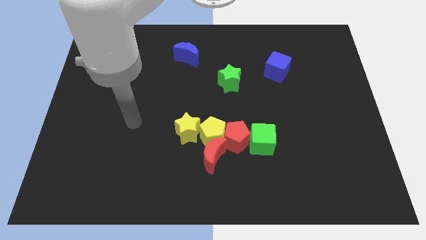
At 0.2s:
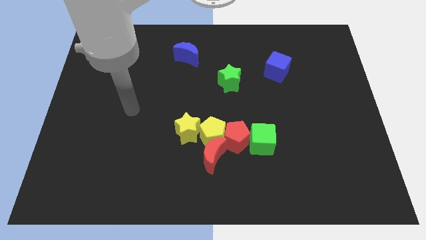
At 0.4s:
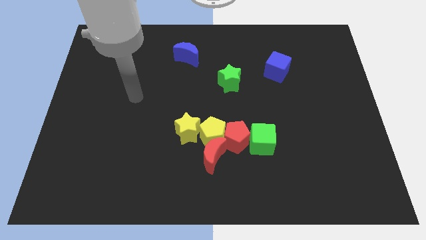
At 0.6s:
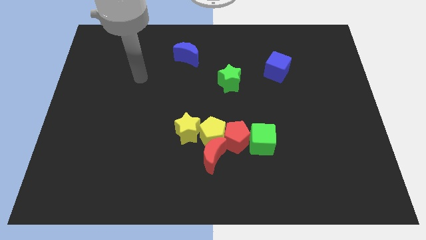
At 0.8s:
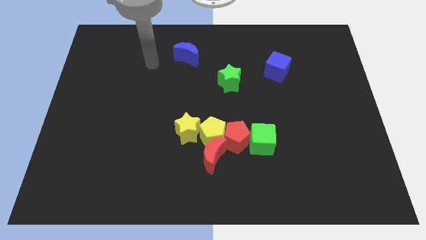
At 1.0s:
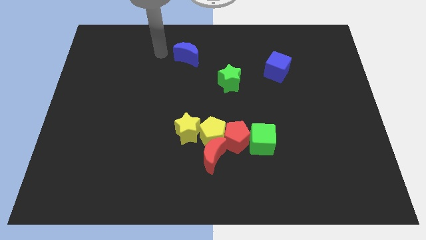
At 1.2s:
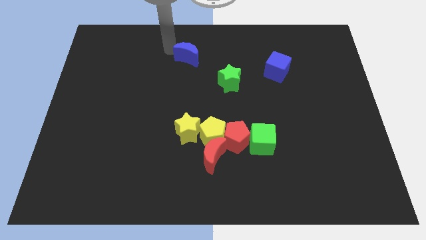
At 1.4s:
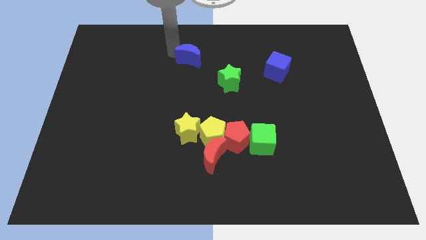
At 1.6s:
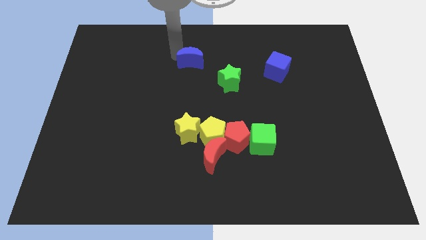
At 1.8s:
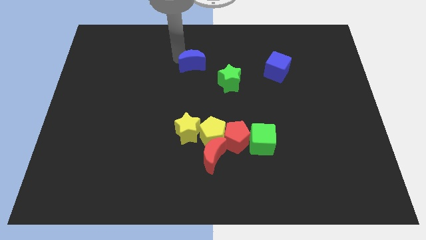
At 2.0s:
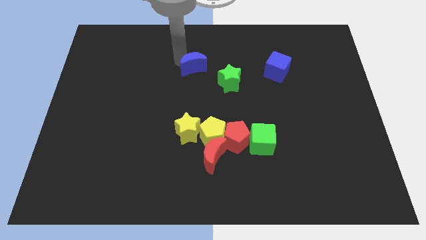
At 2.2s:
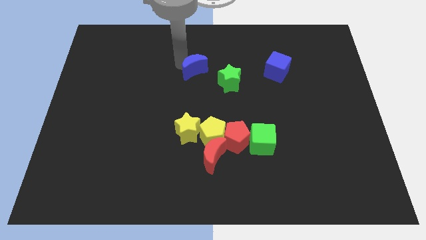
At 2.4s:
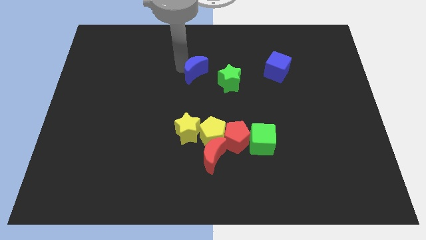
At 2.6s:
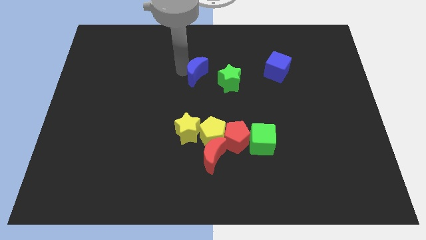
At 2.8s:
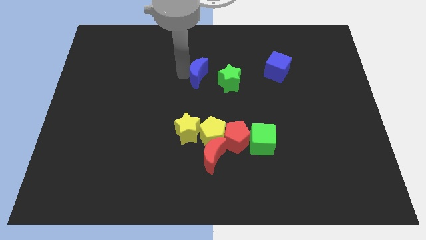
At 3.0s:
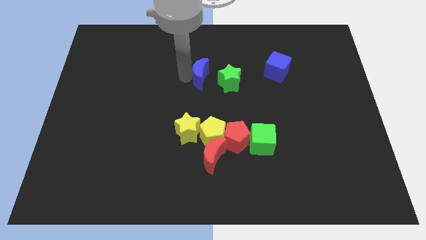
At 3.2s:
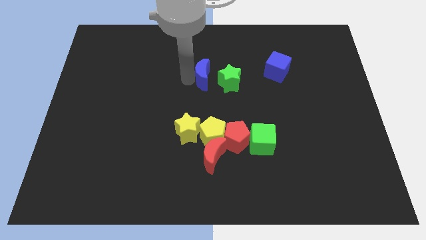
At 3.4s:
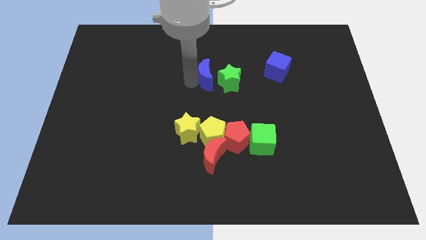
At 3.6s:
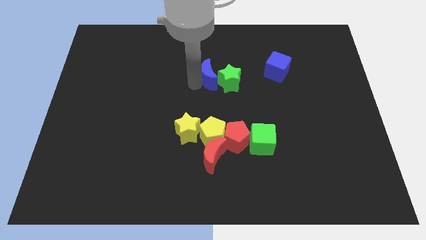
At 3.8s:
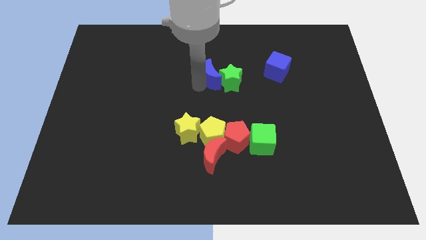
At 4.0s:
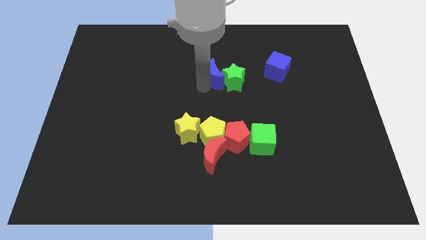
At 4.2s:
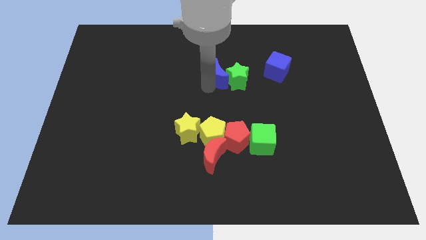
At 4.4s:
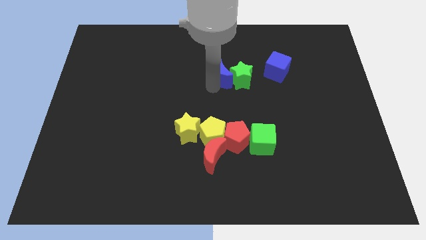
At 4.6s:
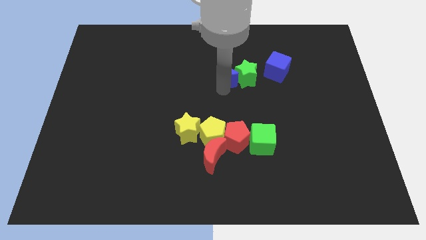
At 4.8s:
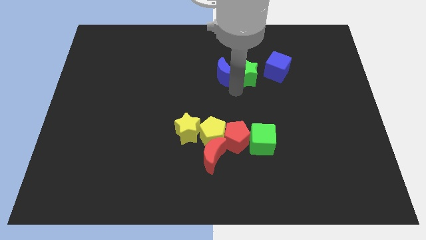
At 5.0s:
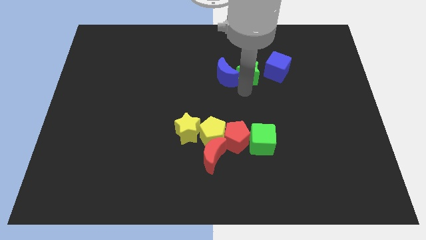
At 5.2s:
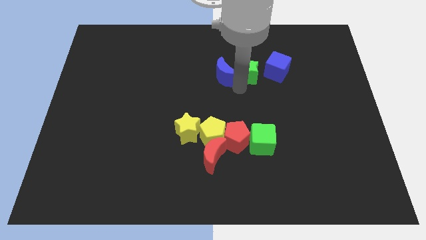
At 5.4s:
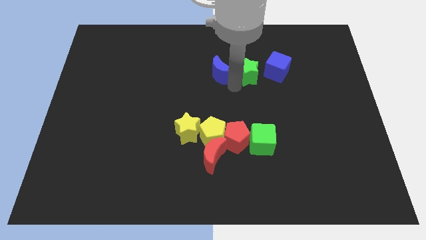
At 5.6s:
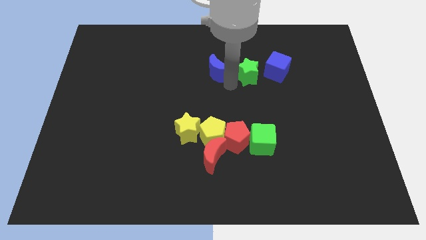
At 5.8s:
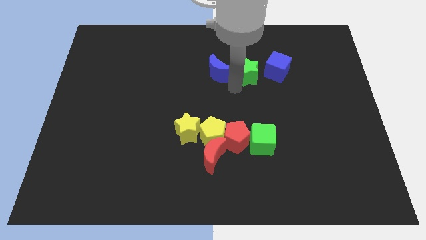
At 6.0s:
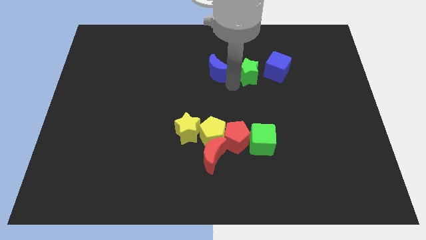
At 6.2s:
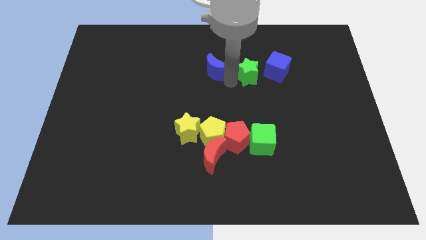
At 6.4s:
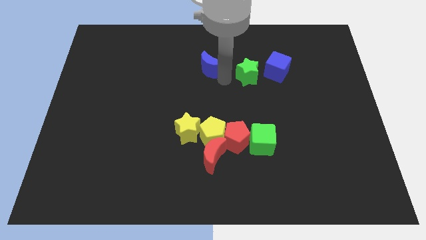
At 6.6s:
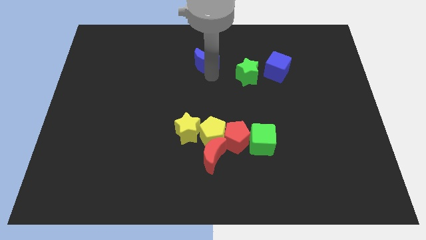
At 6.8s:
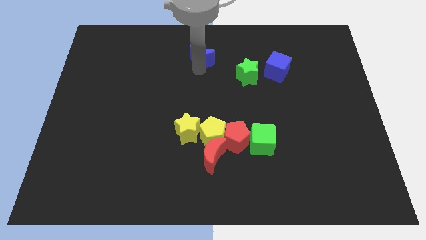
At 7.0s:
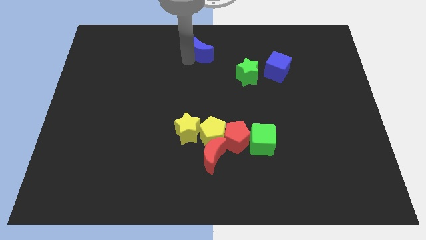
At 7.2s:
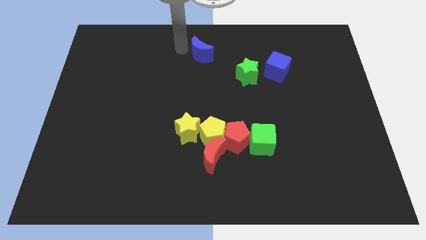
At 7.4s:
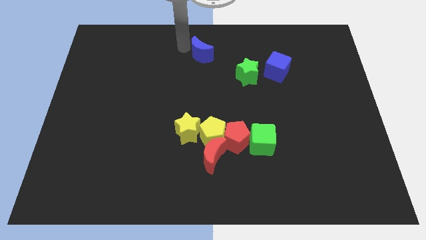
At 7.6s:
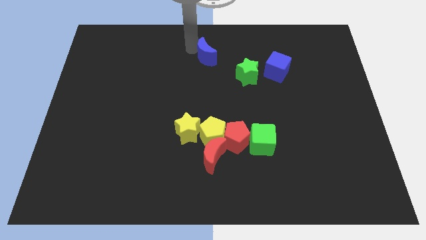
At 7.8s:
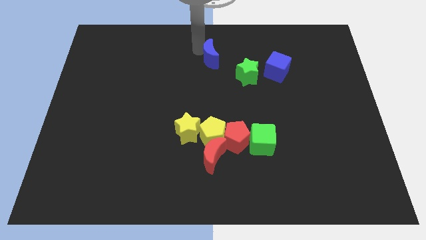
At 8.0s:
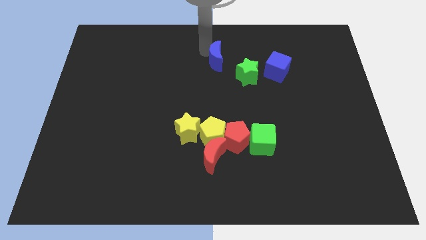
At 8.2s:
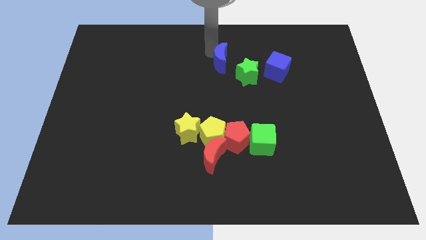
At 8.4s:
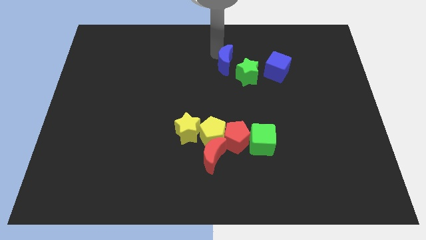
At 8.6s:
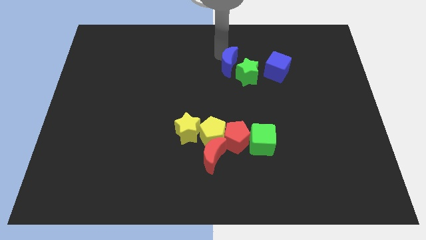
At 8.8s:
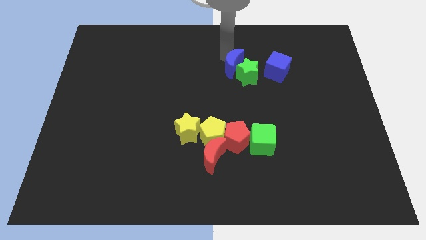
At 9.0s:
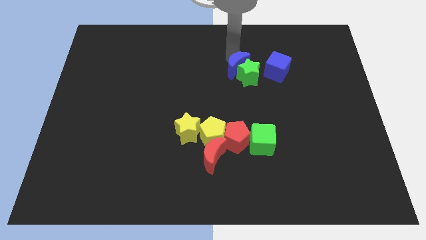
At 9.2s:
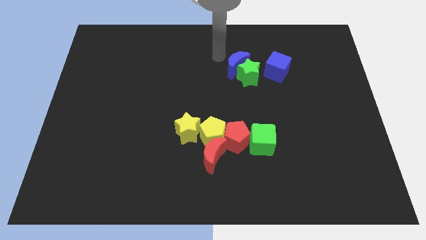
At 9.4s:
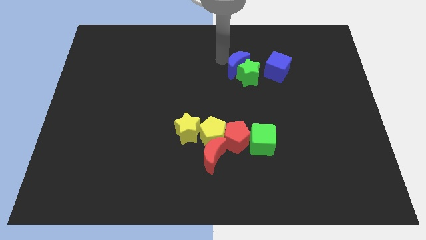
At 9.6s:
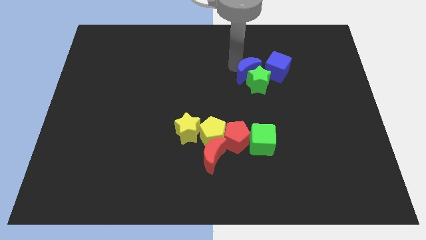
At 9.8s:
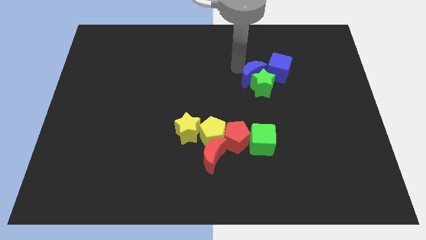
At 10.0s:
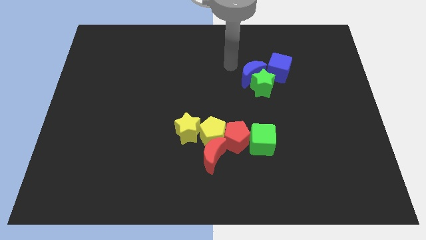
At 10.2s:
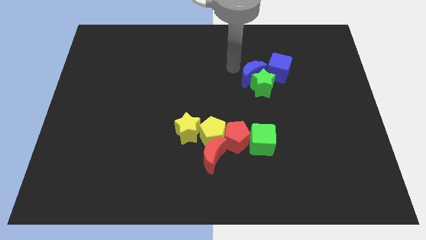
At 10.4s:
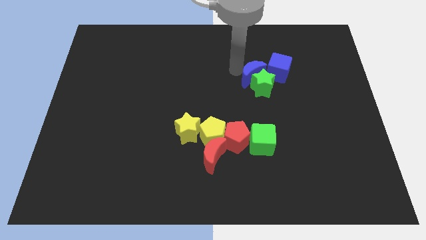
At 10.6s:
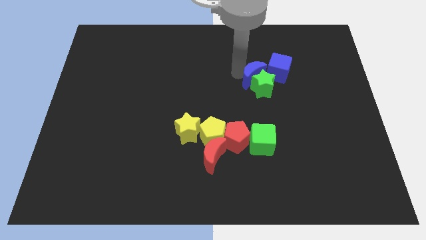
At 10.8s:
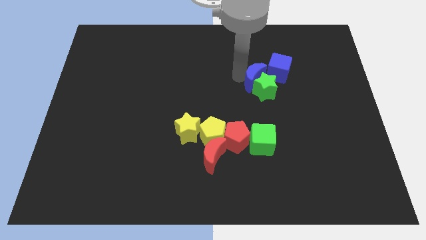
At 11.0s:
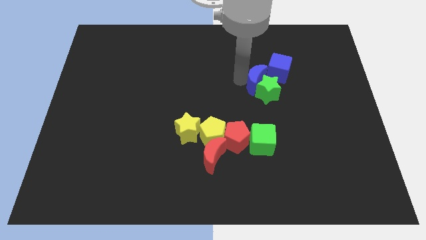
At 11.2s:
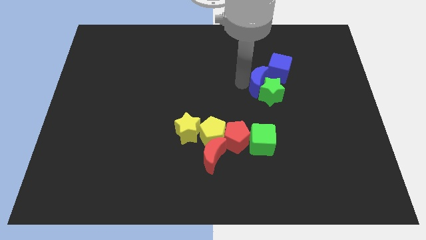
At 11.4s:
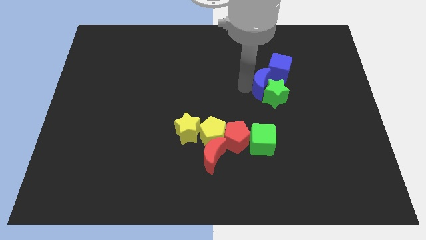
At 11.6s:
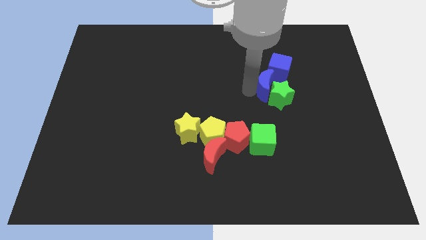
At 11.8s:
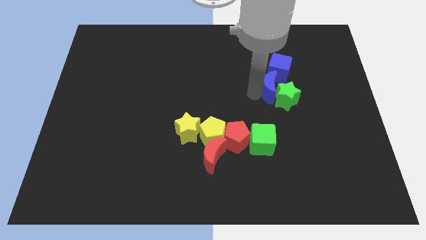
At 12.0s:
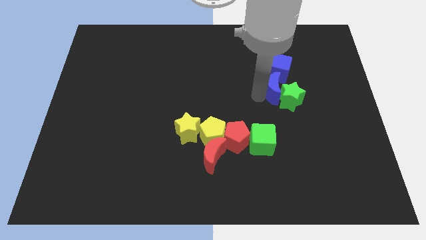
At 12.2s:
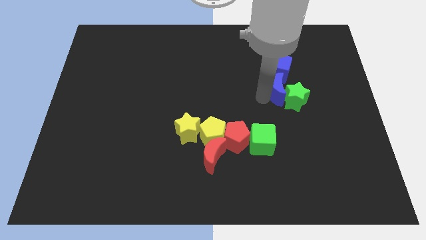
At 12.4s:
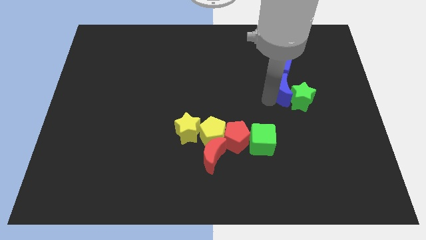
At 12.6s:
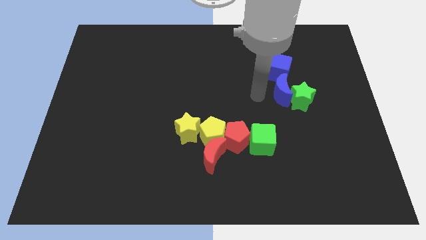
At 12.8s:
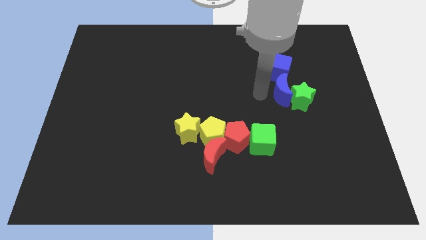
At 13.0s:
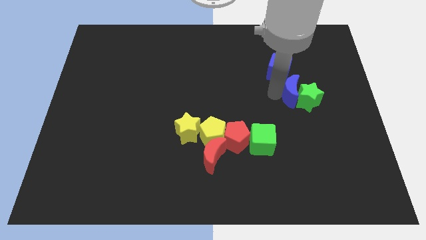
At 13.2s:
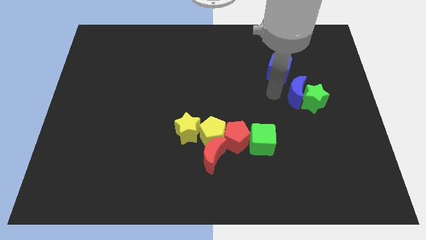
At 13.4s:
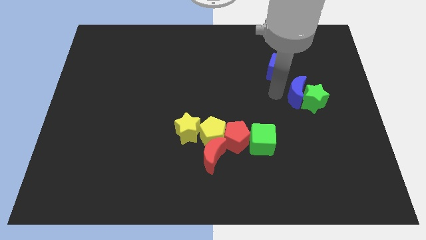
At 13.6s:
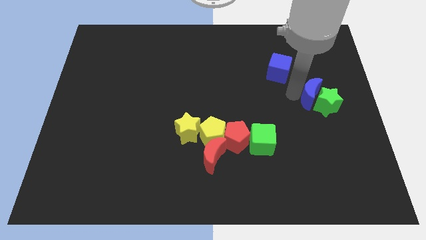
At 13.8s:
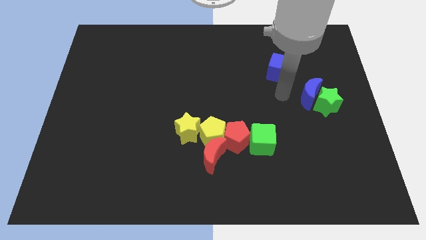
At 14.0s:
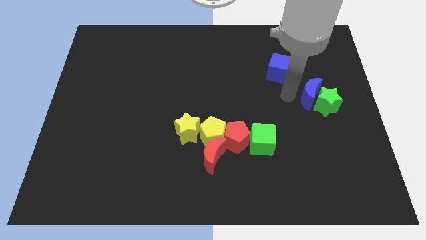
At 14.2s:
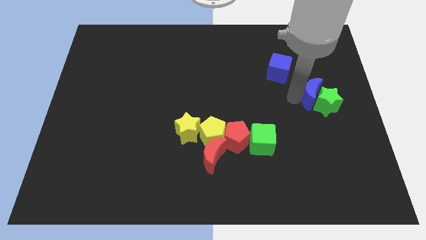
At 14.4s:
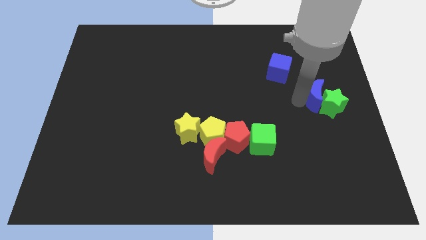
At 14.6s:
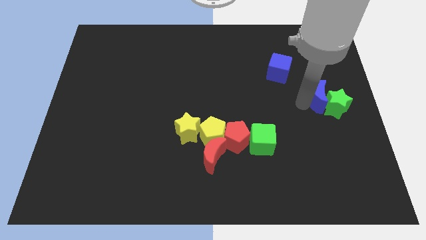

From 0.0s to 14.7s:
push the blue moon to the right side
